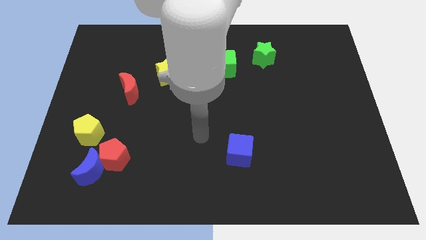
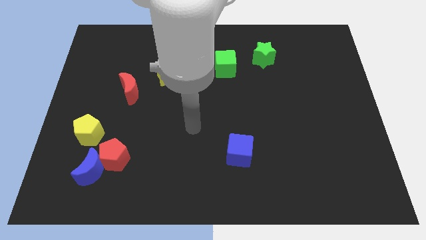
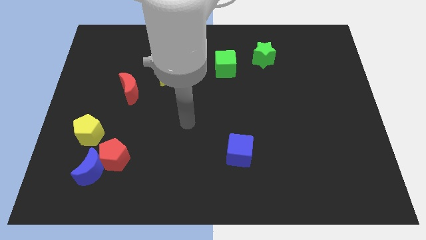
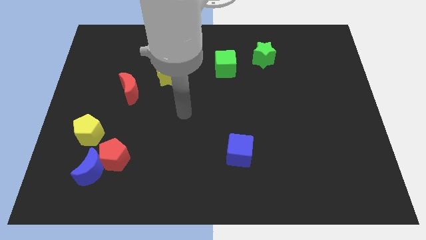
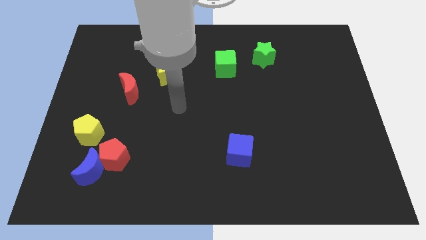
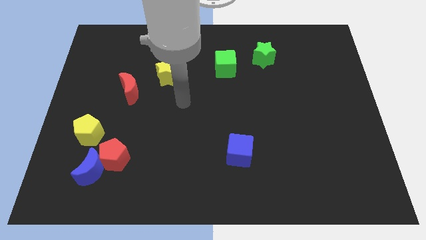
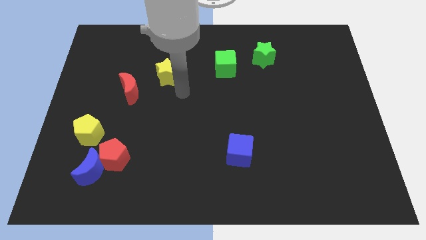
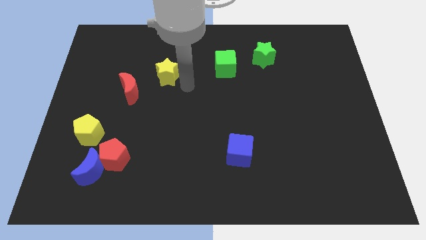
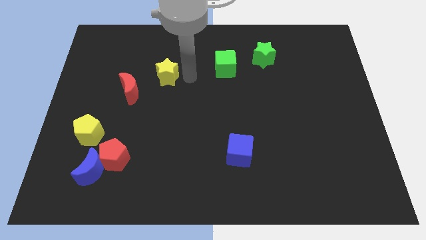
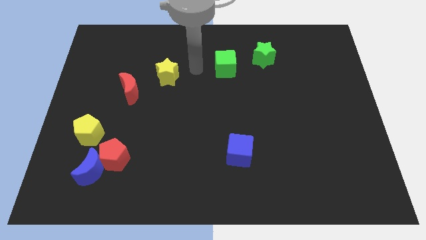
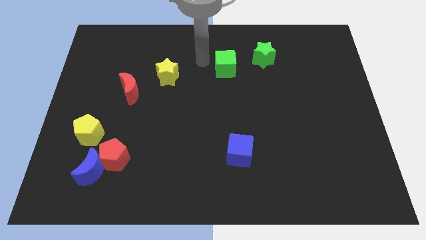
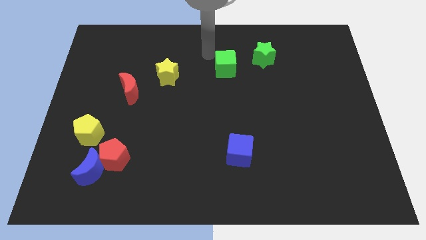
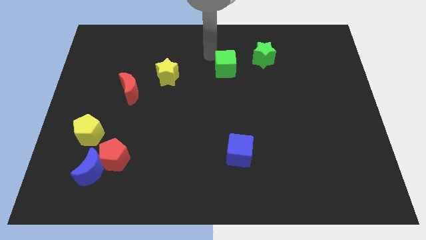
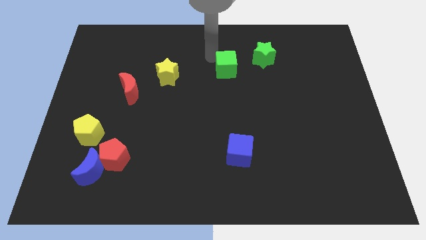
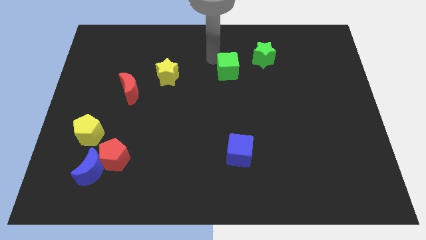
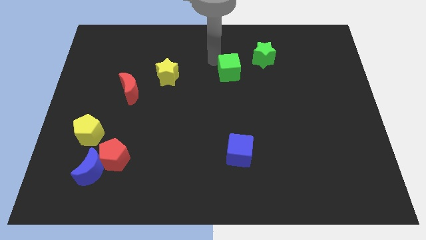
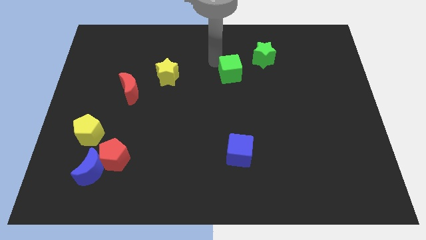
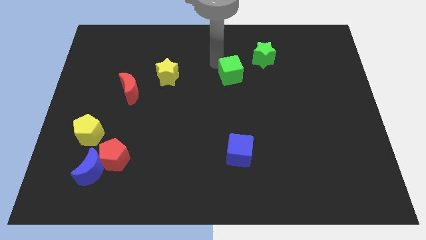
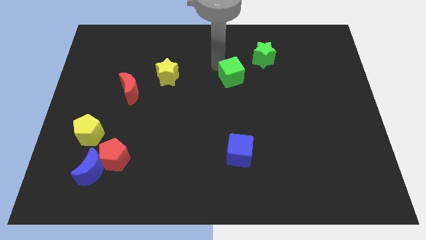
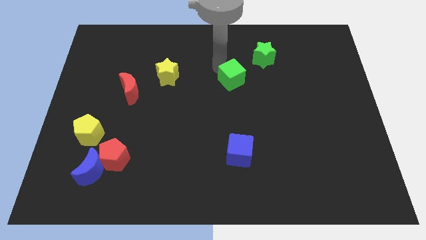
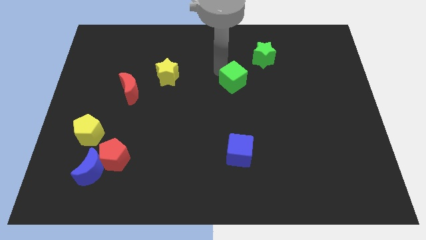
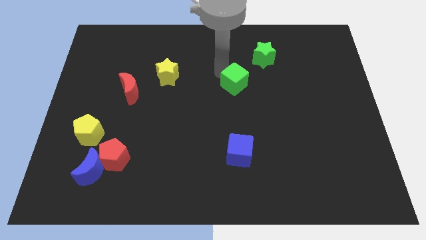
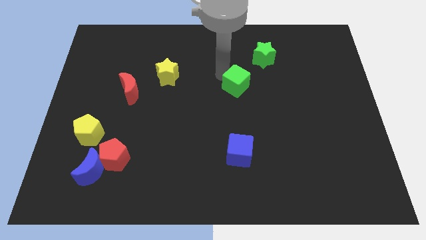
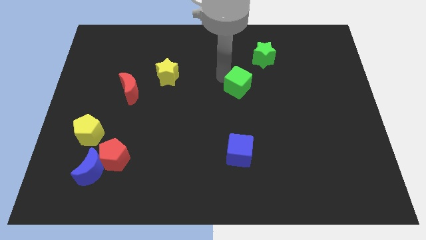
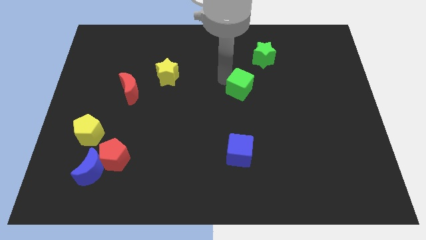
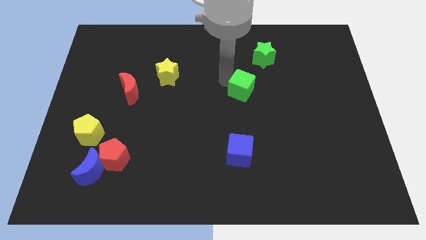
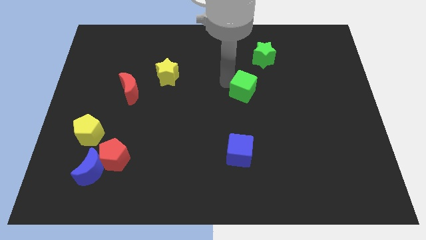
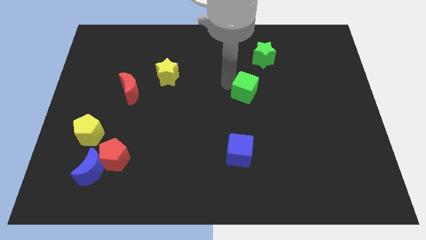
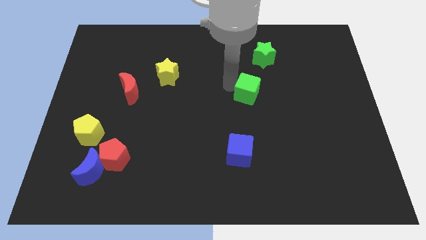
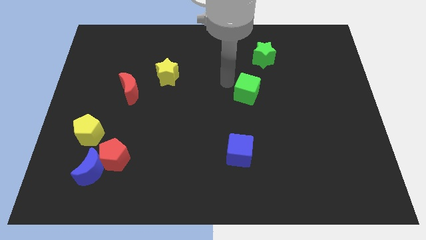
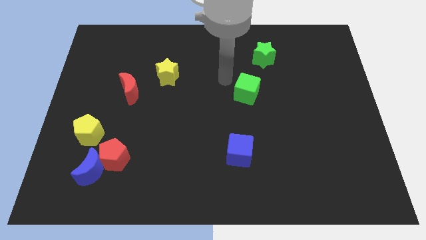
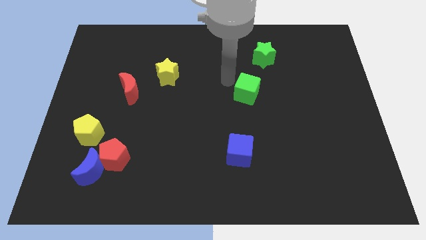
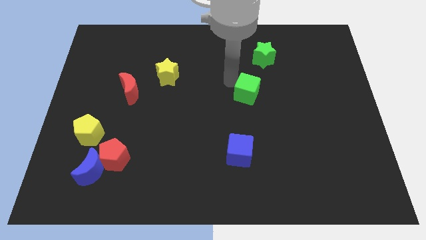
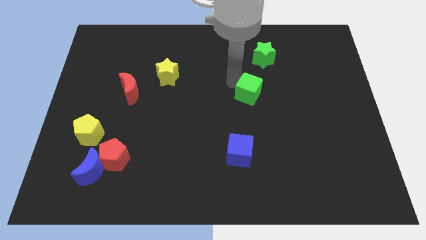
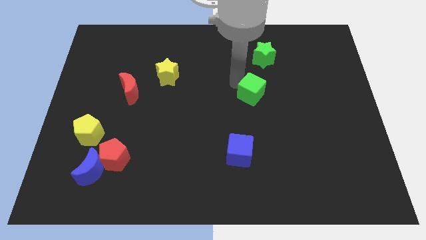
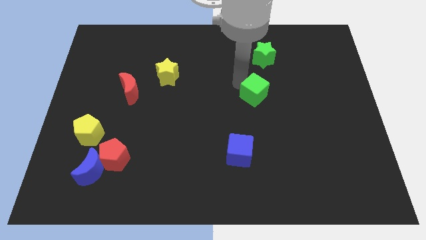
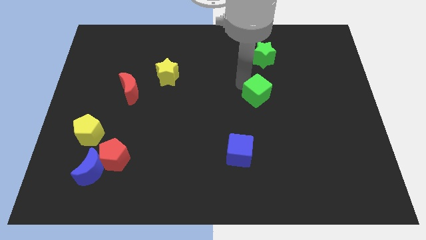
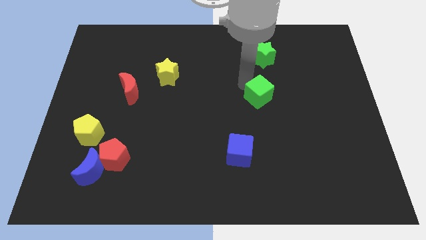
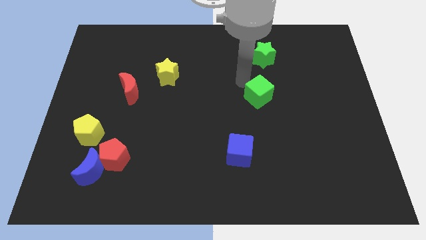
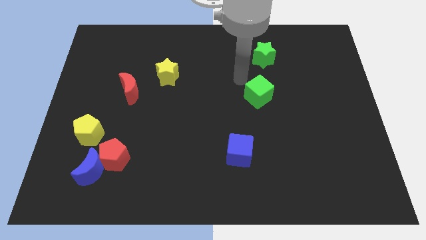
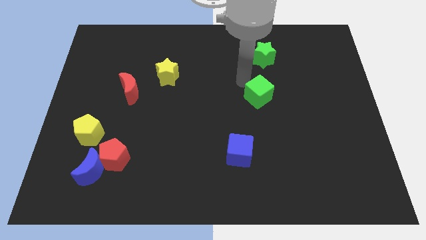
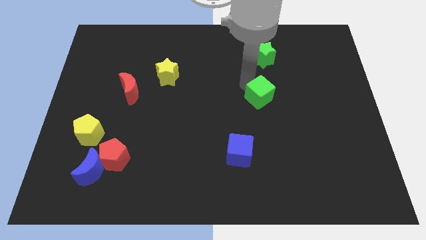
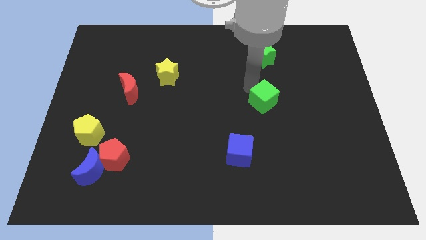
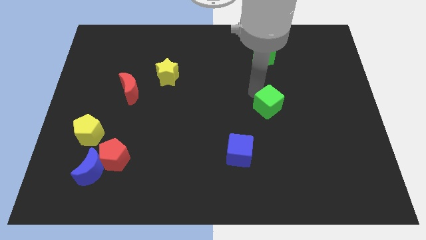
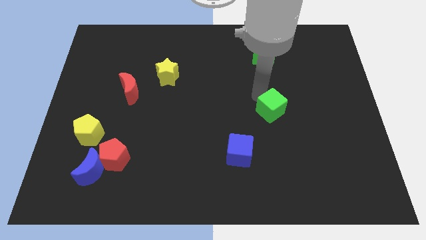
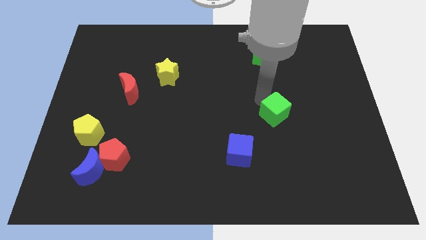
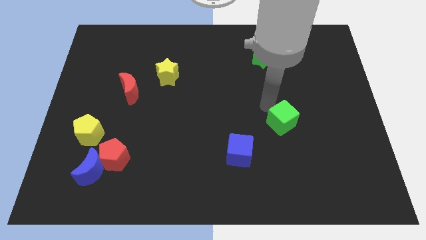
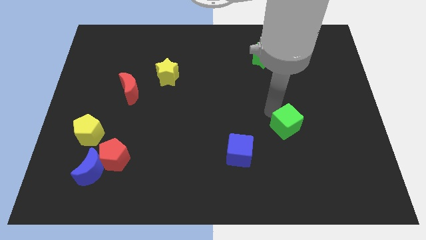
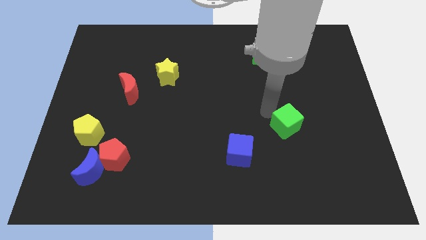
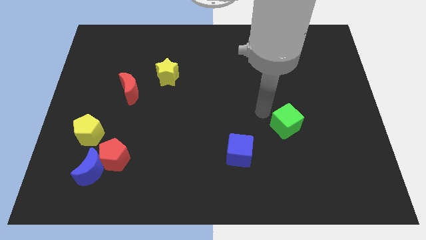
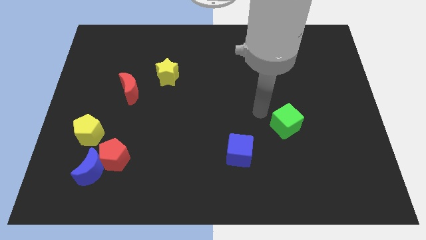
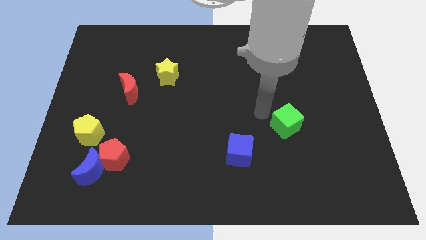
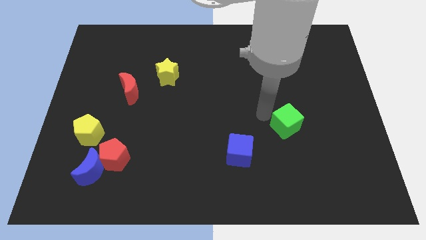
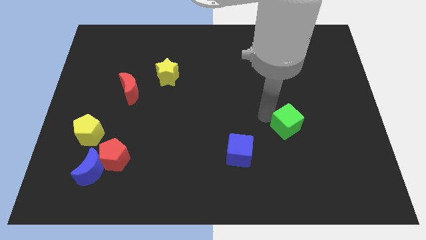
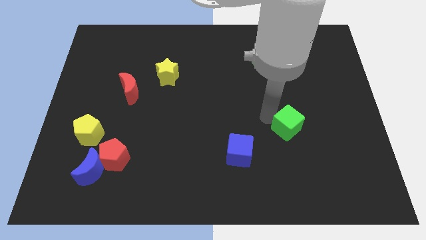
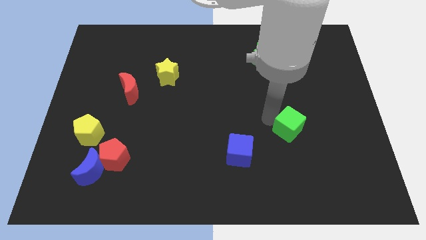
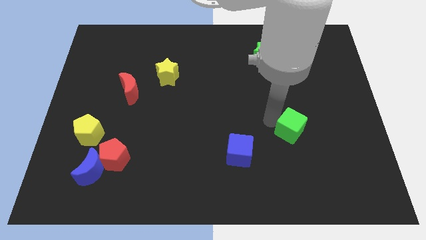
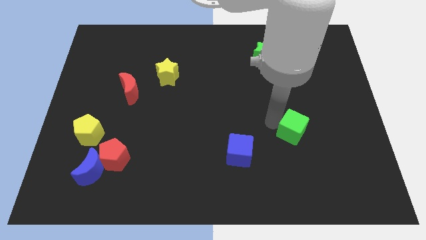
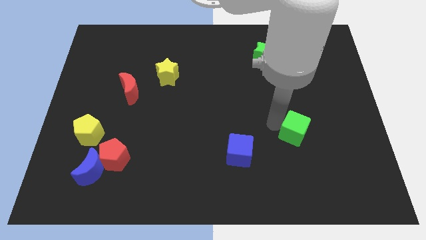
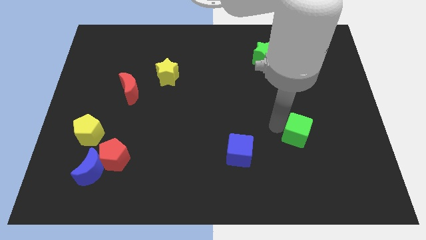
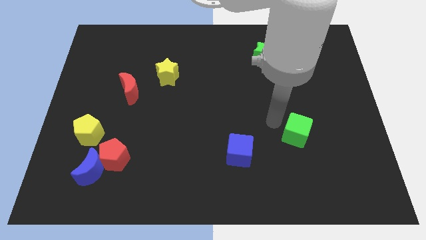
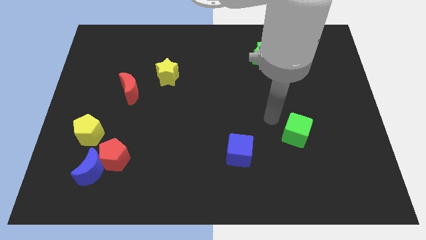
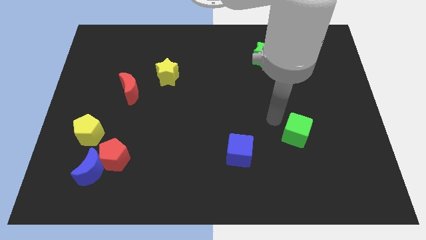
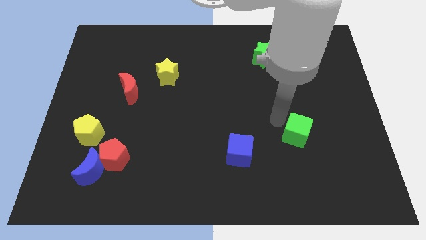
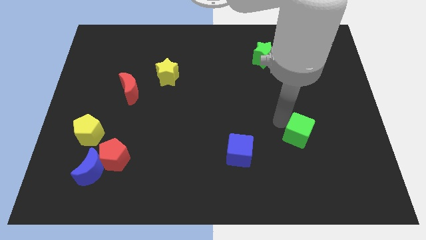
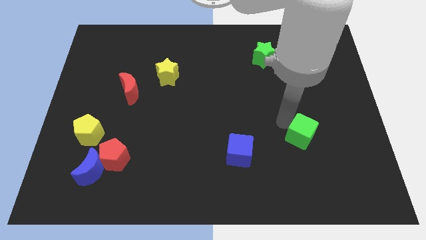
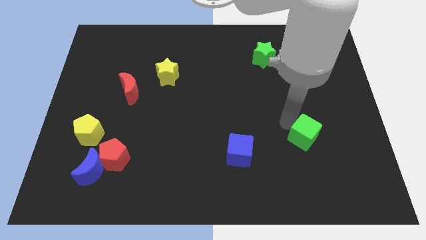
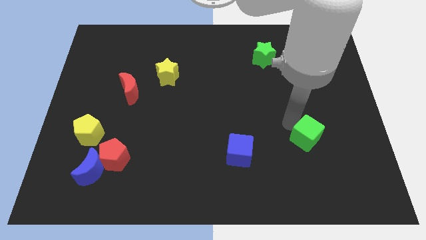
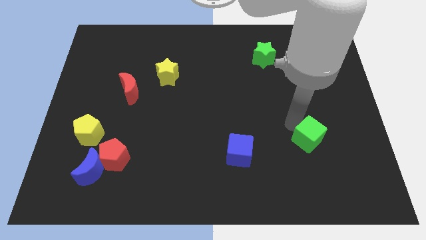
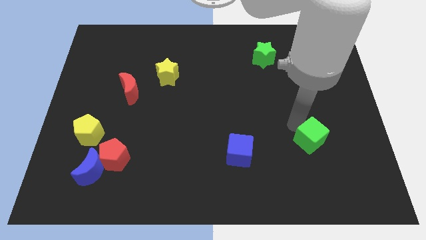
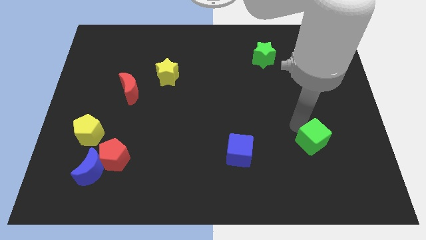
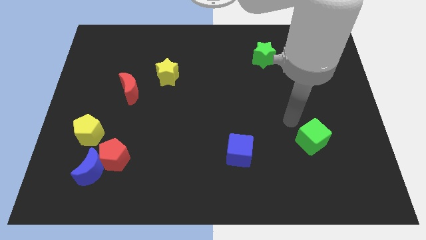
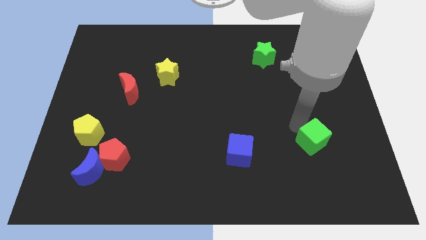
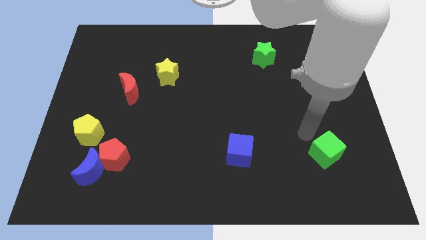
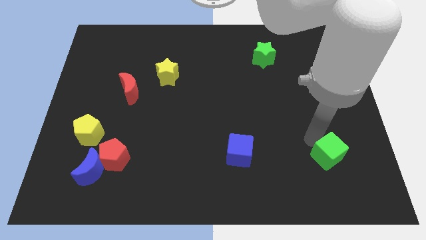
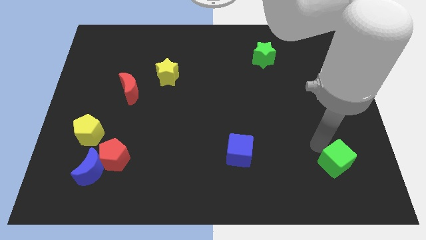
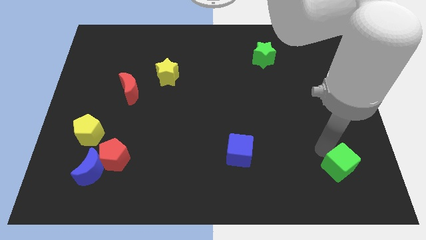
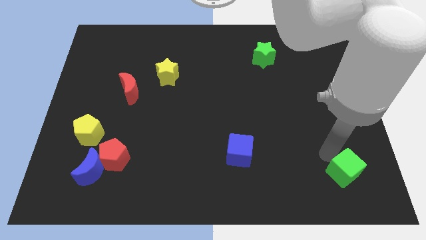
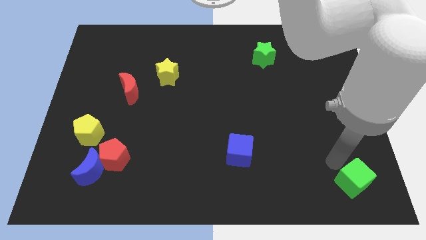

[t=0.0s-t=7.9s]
put the green cube to the bottom right
